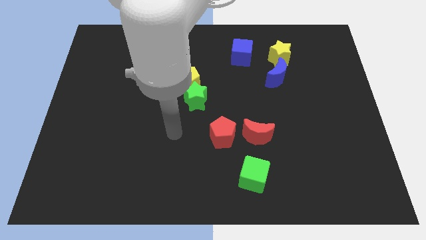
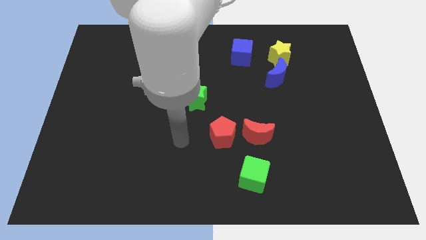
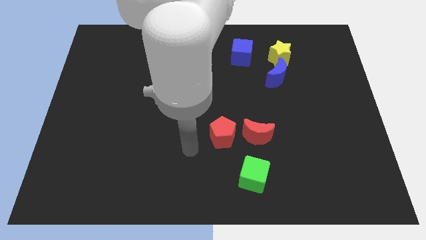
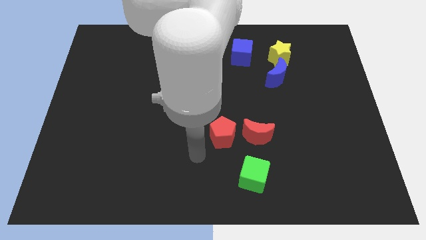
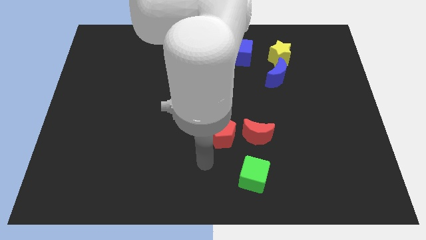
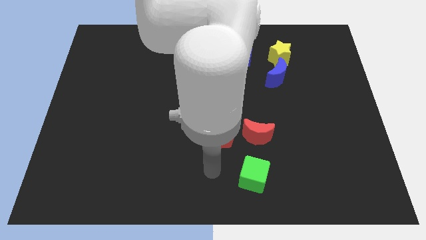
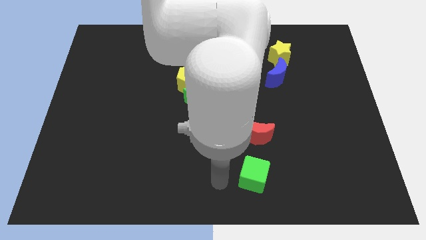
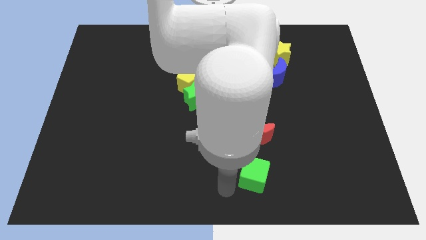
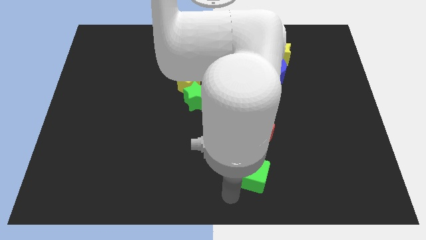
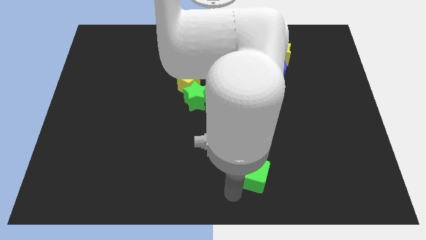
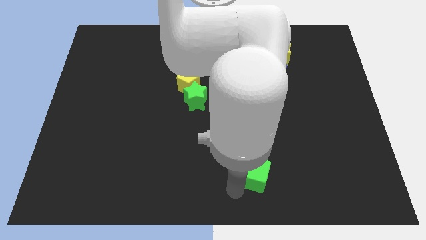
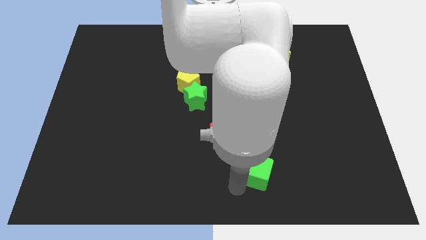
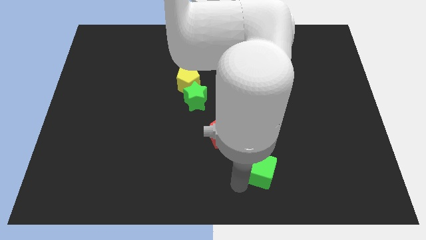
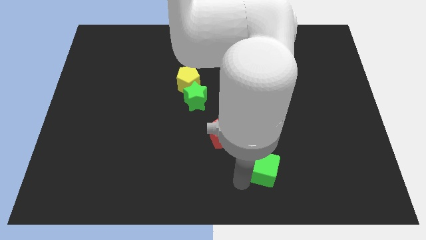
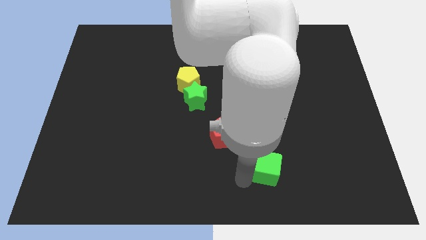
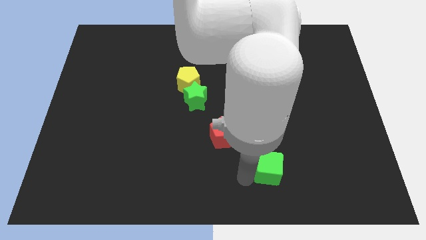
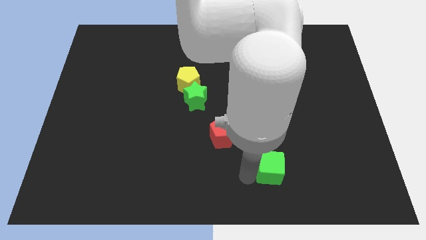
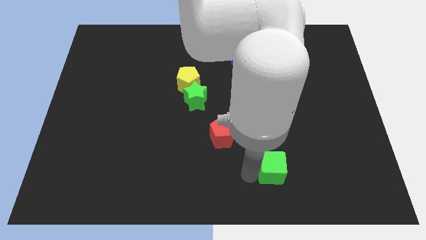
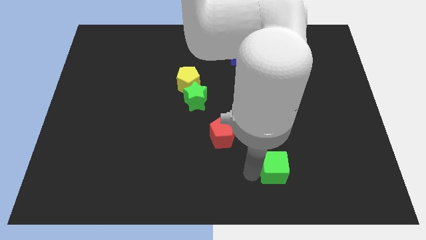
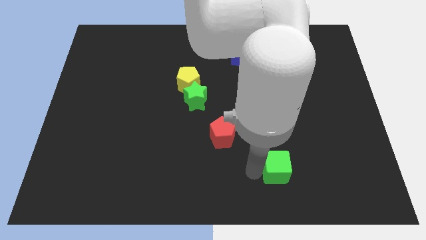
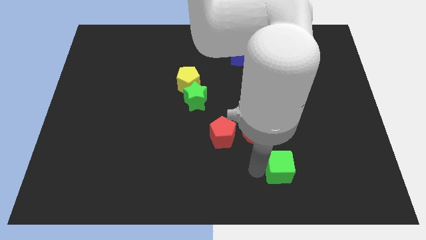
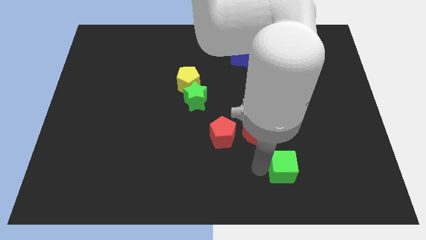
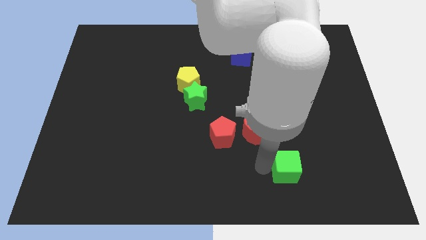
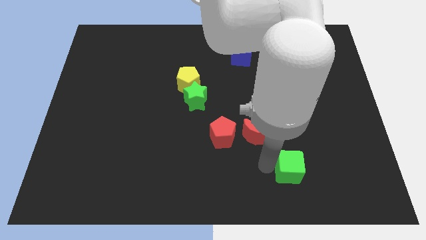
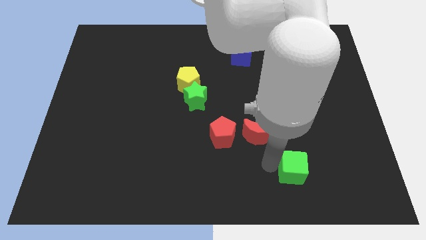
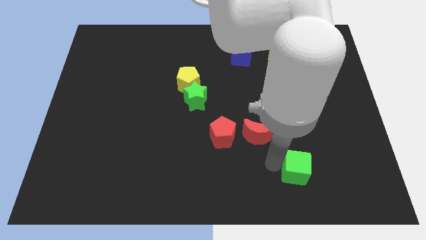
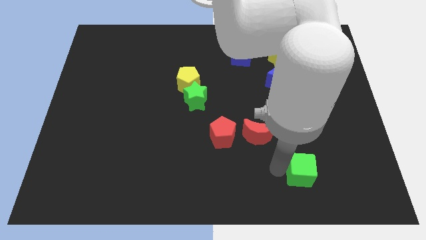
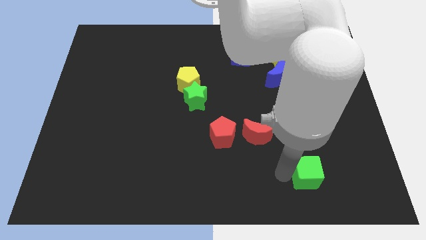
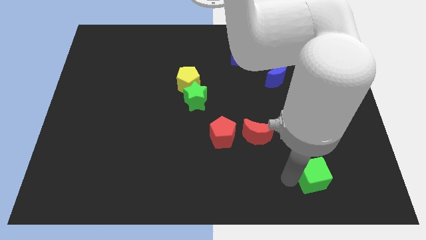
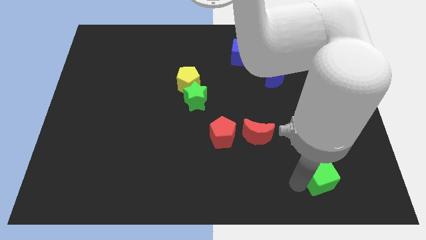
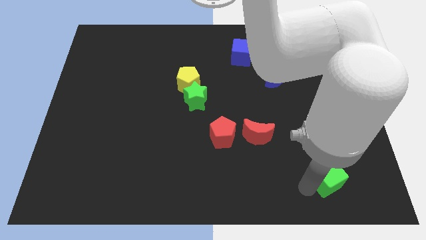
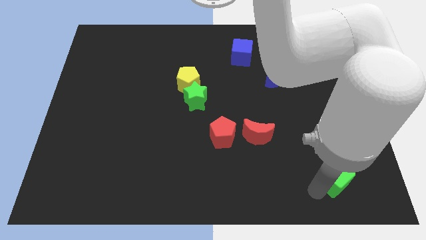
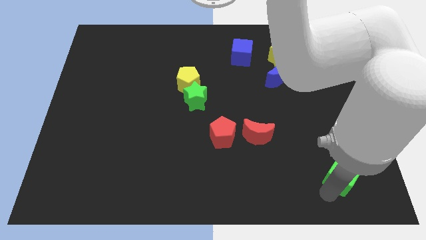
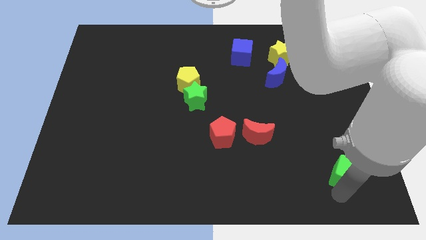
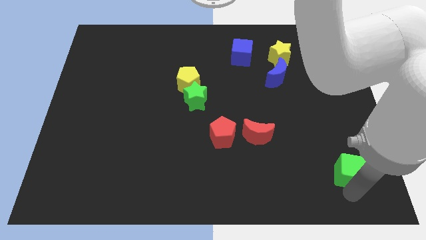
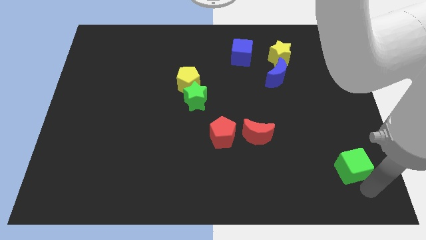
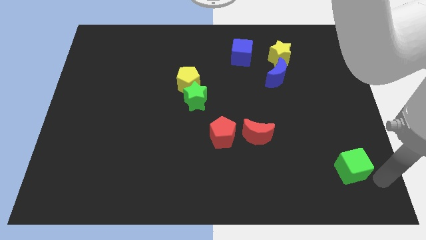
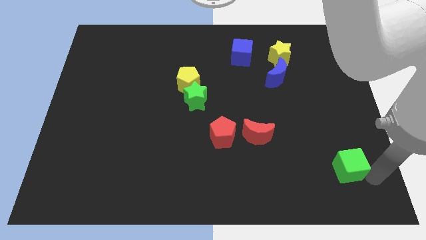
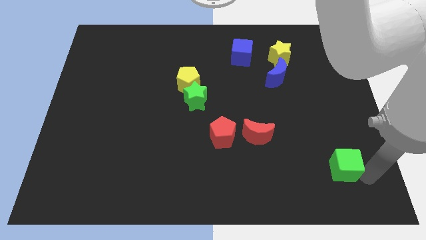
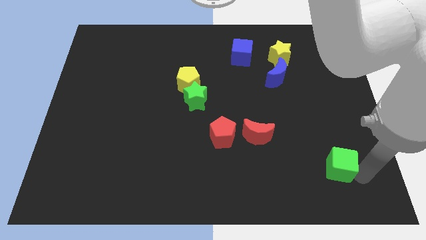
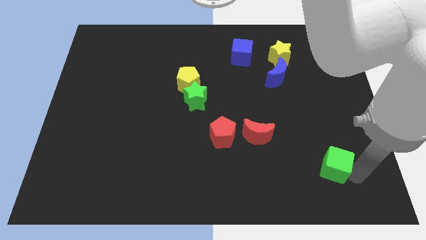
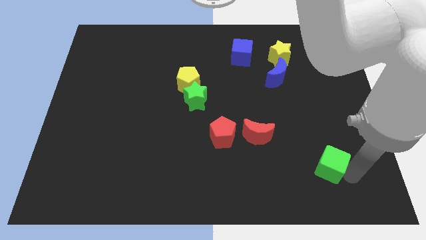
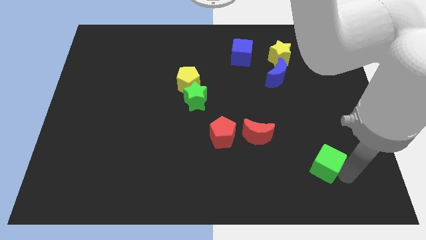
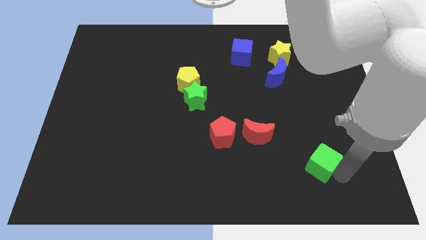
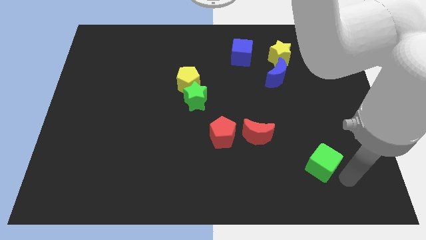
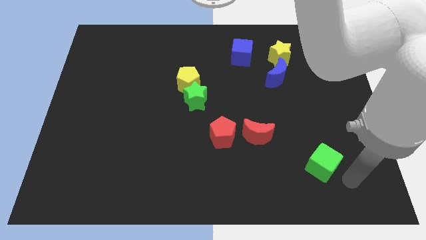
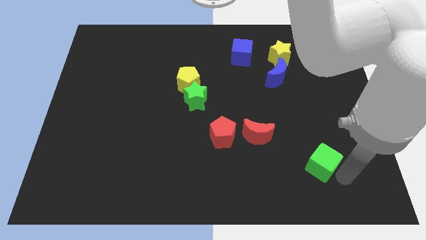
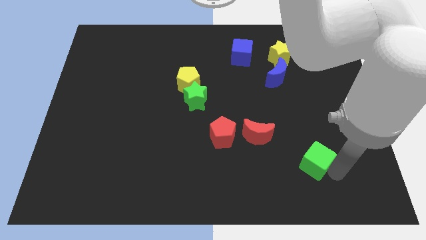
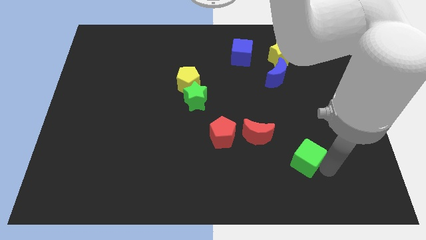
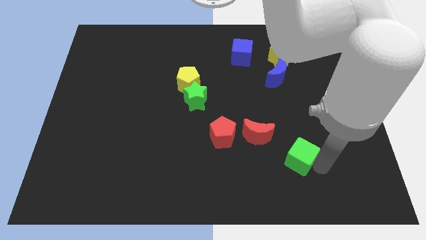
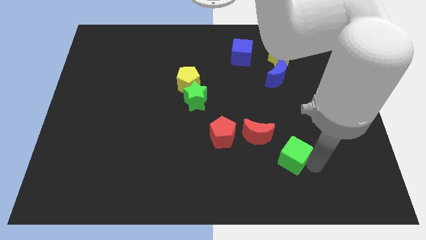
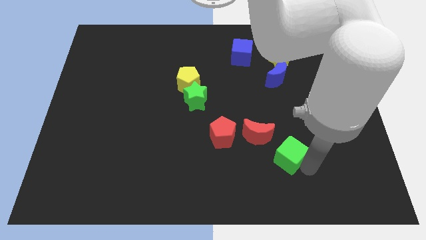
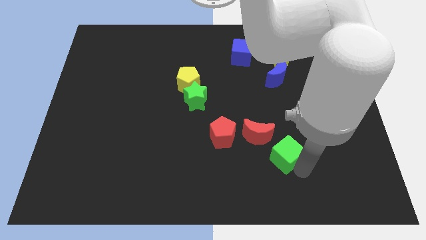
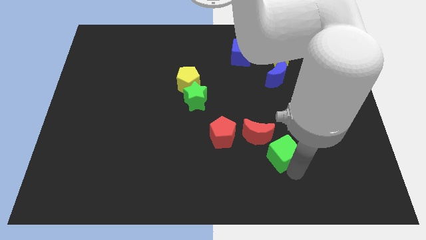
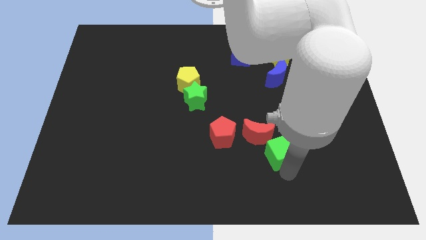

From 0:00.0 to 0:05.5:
push the green cube just right of the red moon

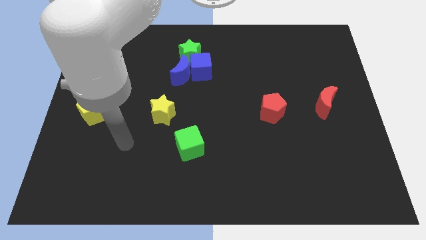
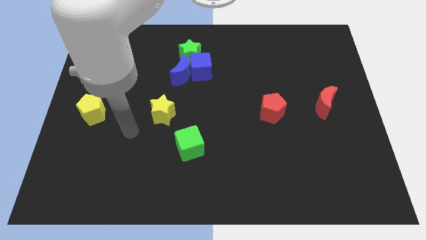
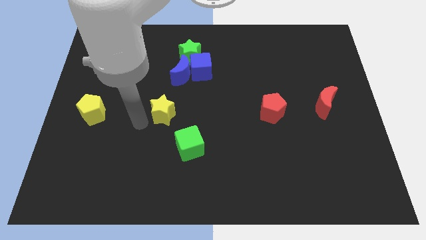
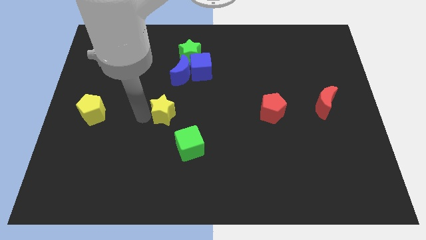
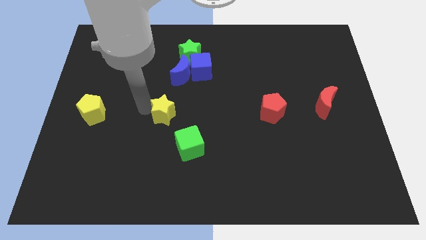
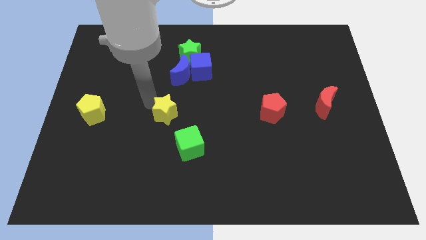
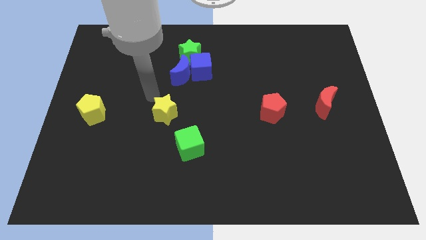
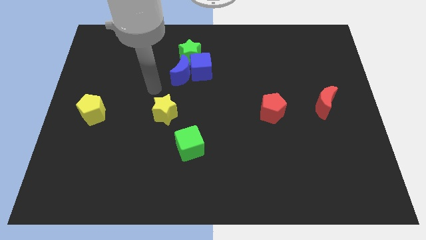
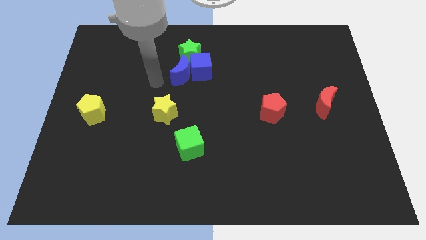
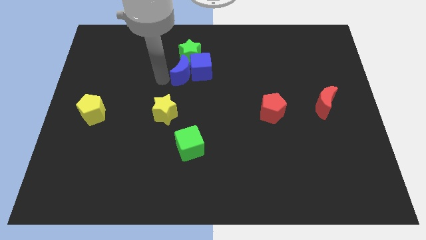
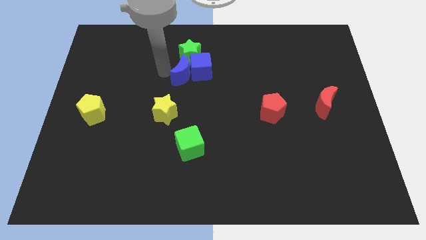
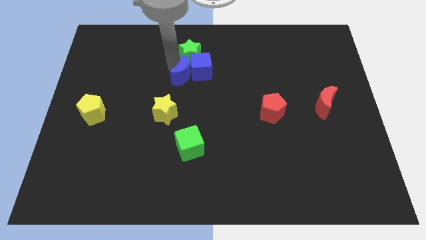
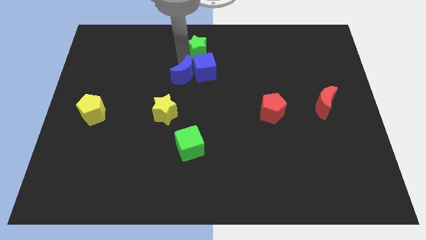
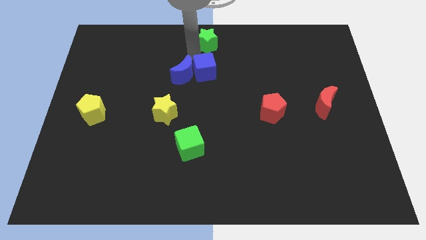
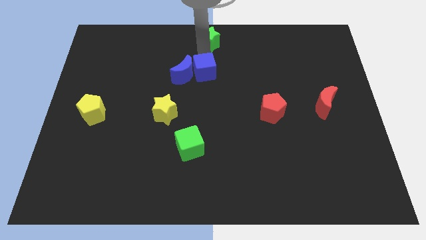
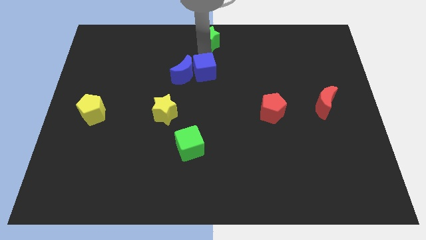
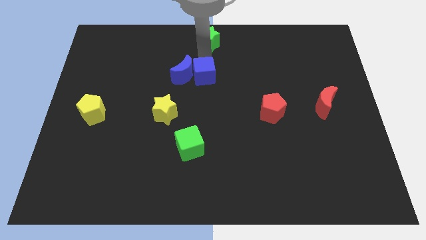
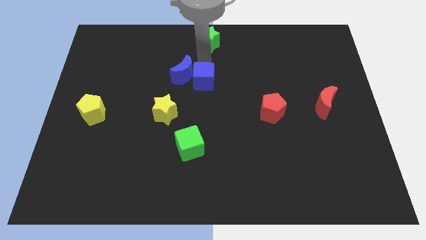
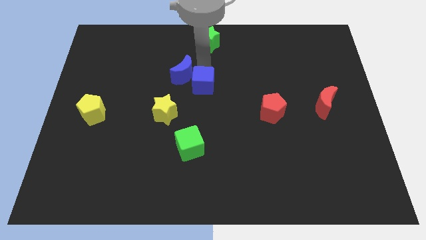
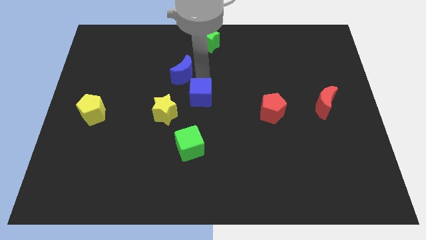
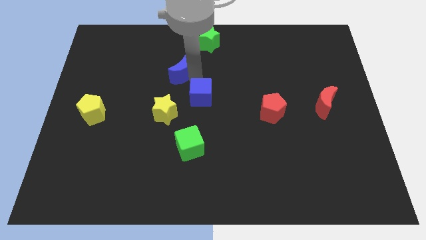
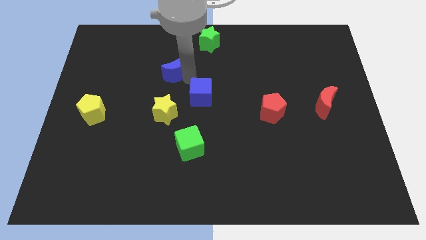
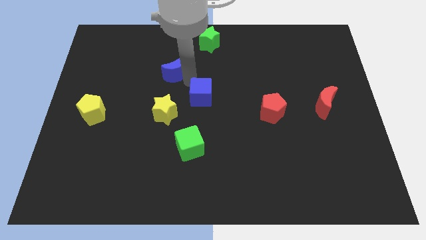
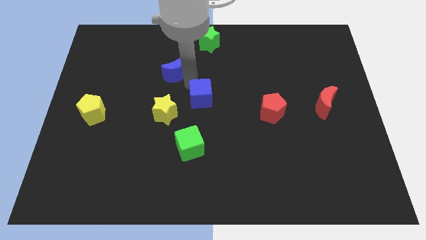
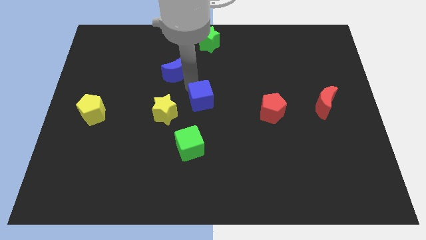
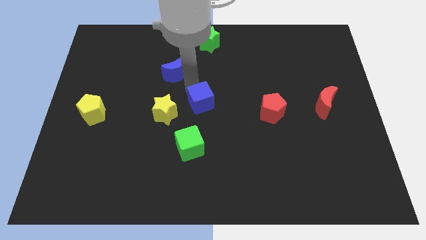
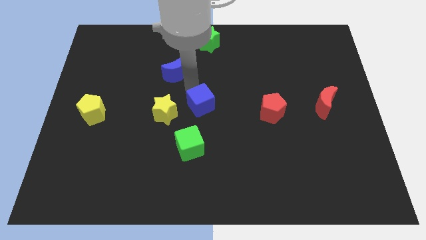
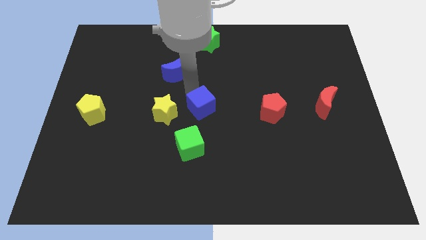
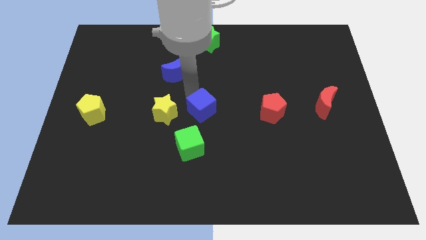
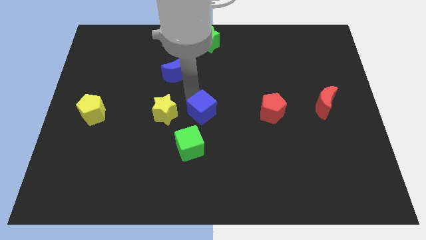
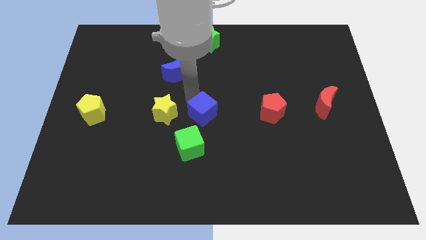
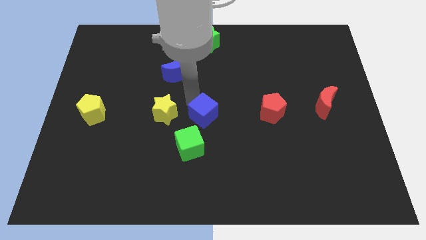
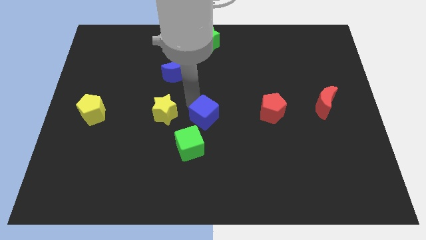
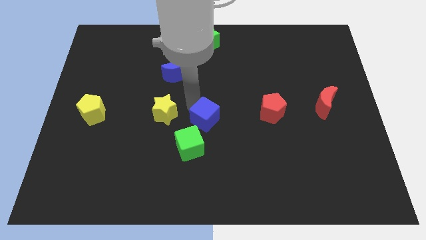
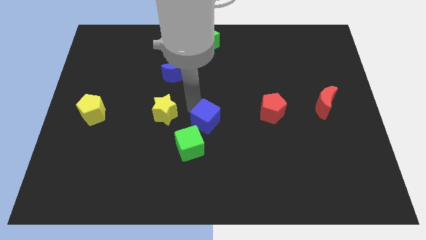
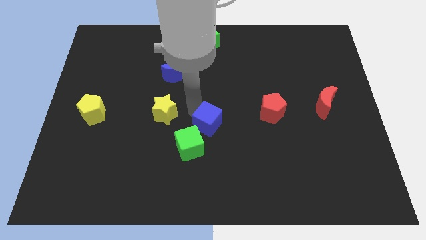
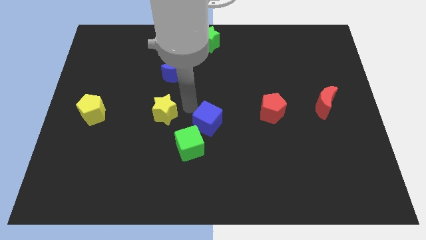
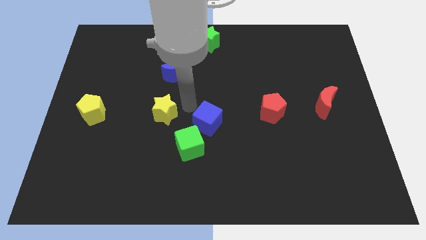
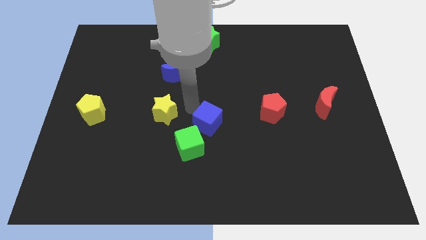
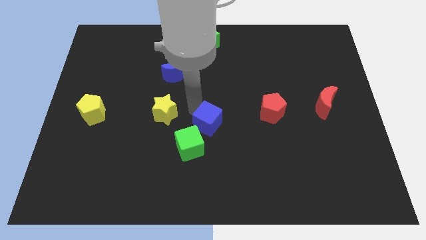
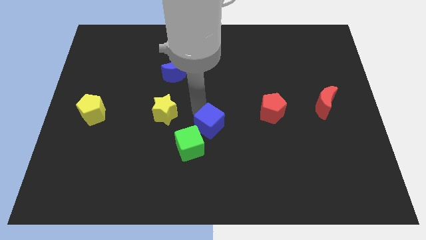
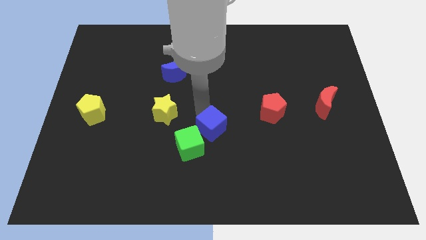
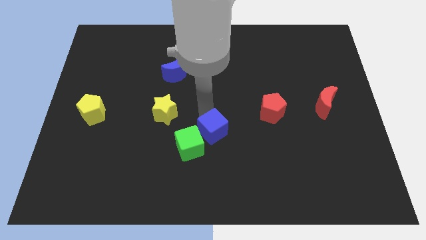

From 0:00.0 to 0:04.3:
push the blue cube right of the green cube
